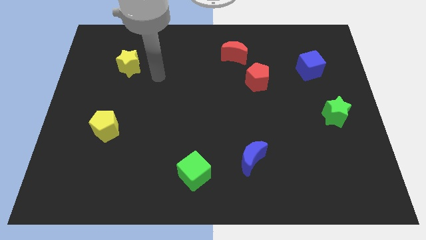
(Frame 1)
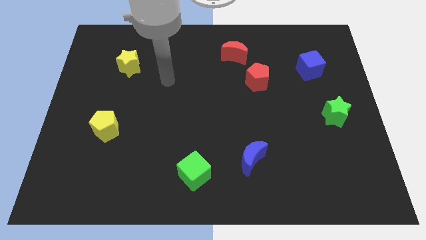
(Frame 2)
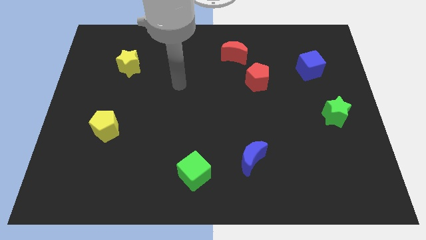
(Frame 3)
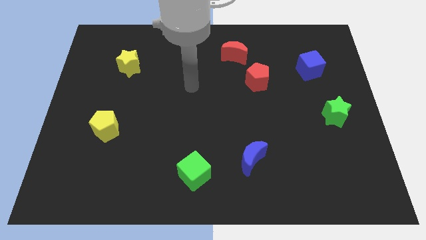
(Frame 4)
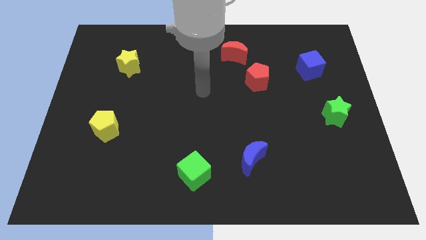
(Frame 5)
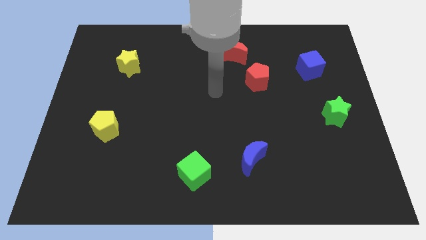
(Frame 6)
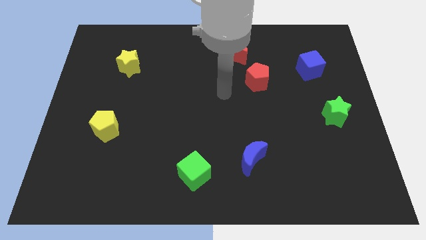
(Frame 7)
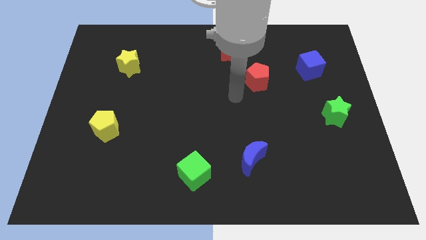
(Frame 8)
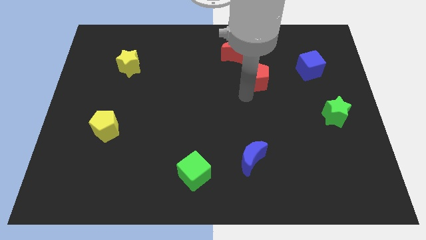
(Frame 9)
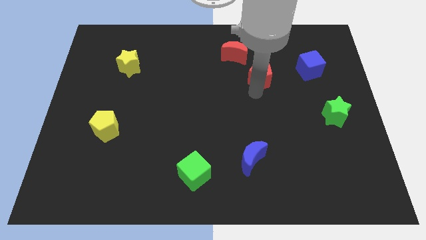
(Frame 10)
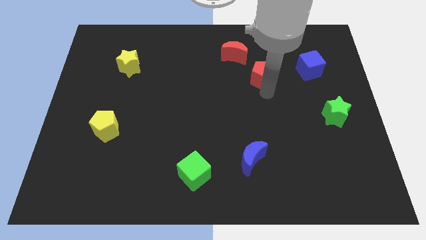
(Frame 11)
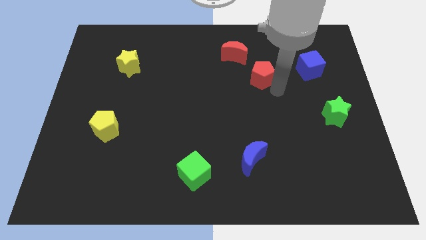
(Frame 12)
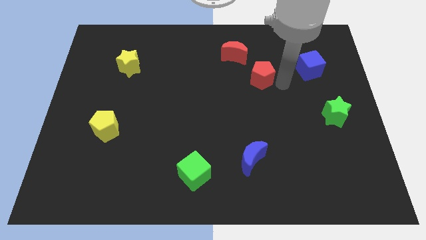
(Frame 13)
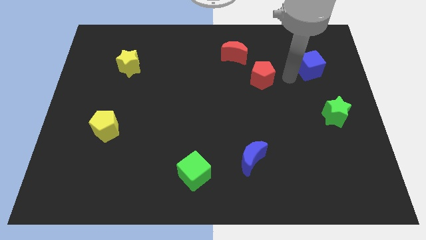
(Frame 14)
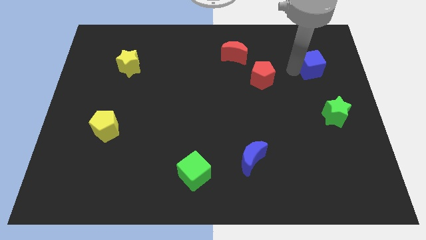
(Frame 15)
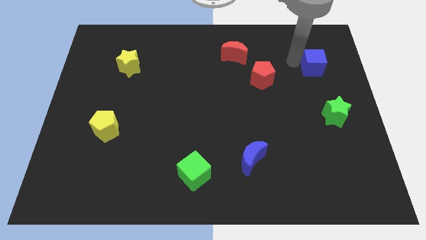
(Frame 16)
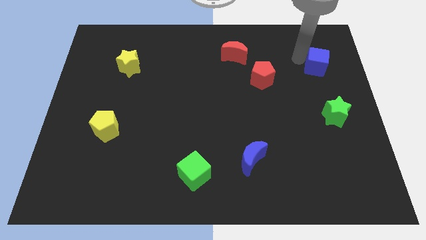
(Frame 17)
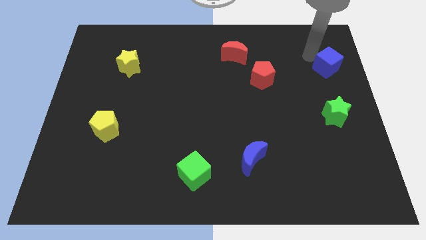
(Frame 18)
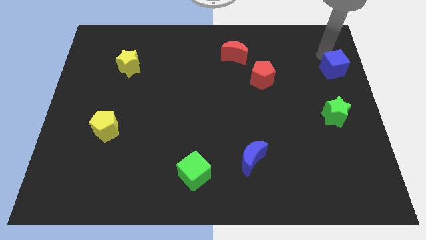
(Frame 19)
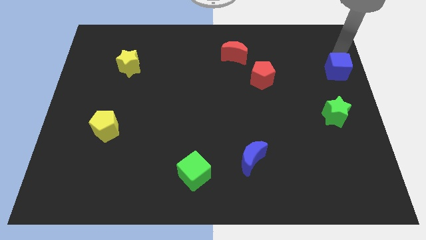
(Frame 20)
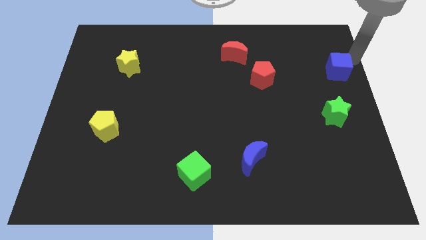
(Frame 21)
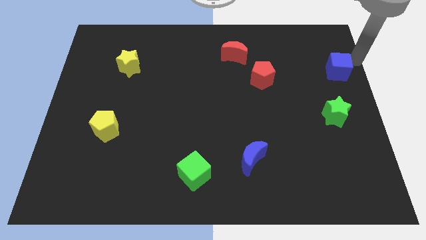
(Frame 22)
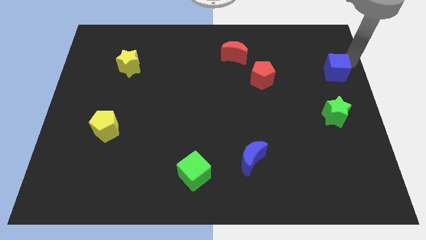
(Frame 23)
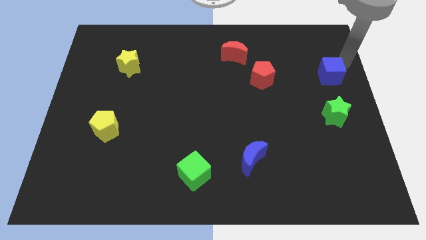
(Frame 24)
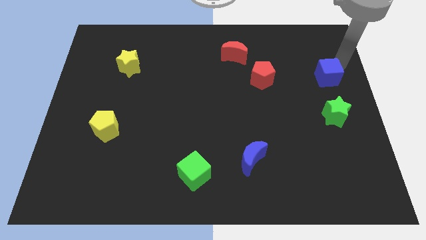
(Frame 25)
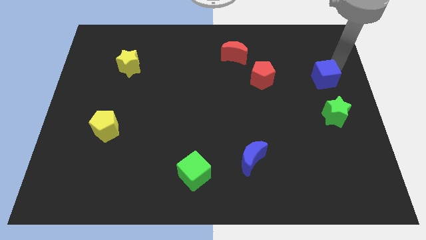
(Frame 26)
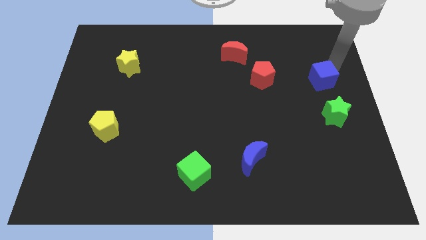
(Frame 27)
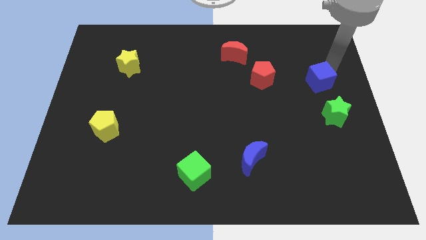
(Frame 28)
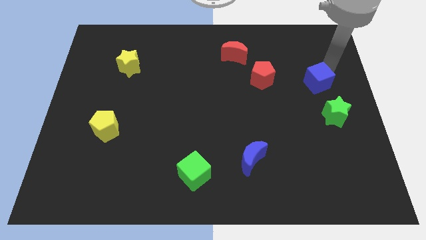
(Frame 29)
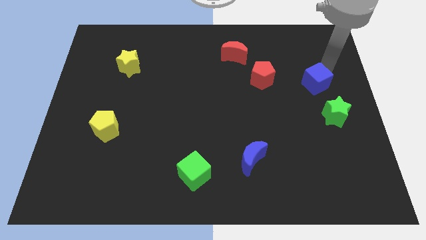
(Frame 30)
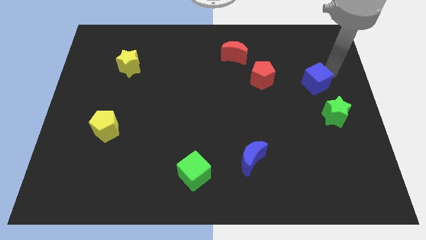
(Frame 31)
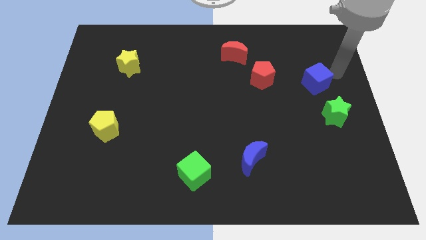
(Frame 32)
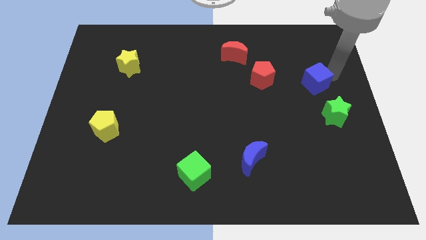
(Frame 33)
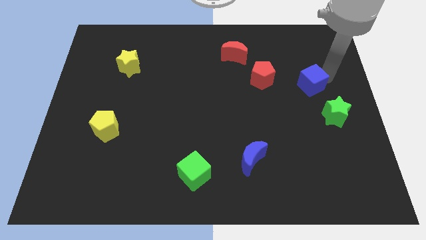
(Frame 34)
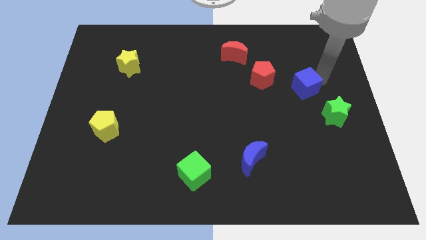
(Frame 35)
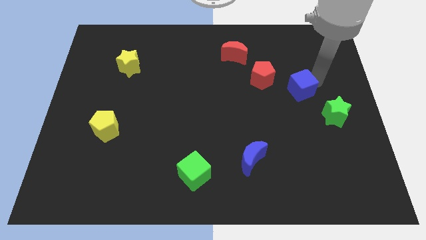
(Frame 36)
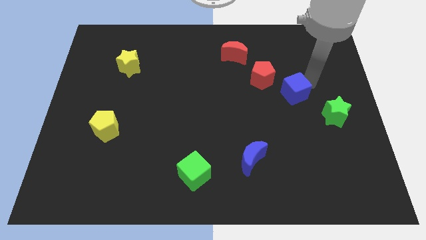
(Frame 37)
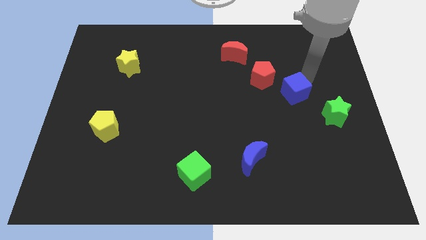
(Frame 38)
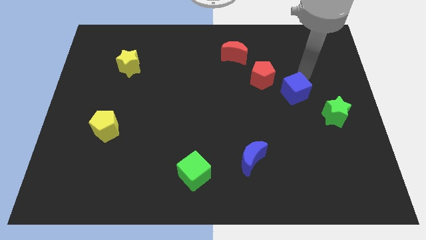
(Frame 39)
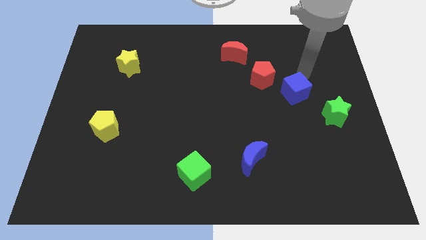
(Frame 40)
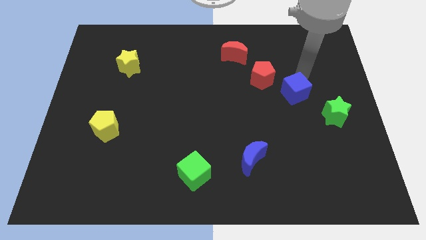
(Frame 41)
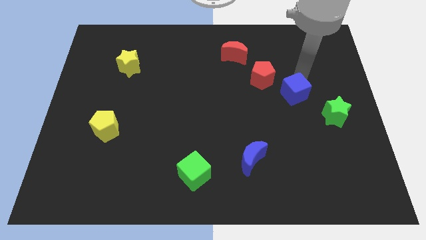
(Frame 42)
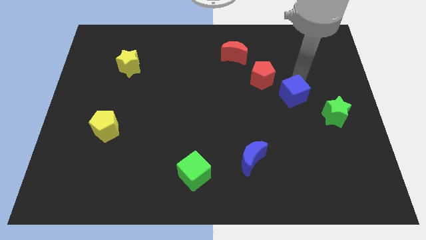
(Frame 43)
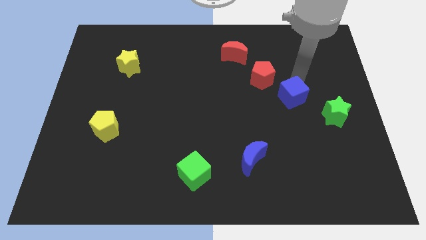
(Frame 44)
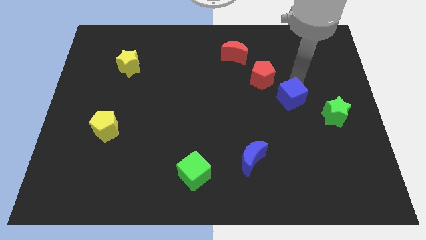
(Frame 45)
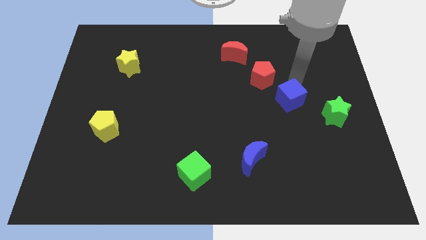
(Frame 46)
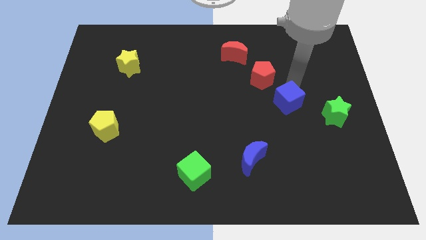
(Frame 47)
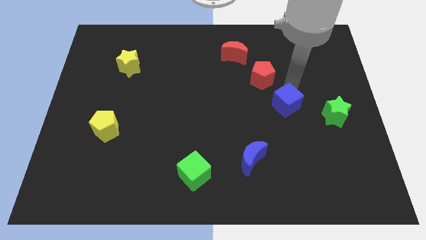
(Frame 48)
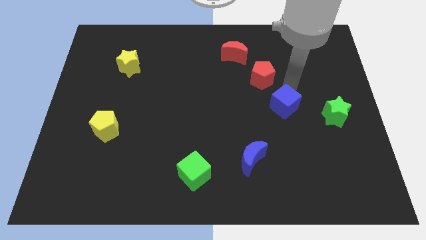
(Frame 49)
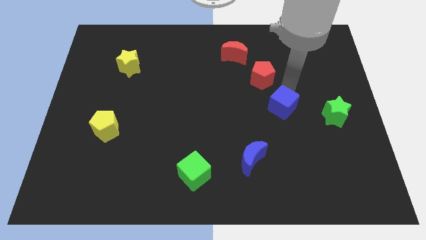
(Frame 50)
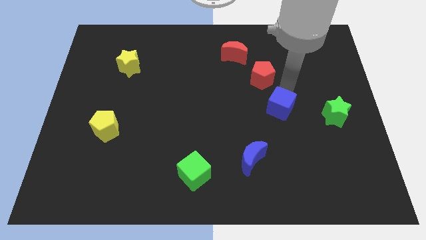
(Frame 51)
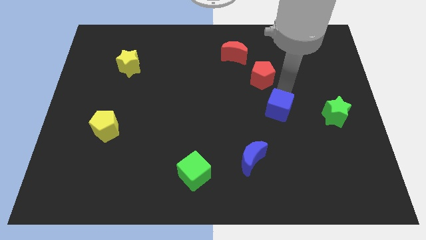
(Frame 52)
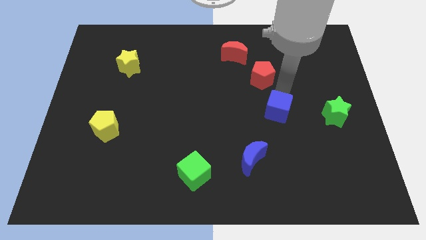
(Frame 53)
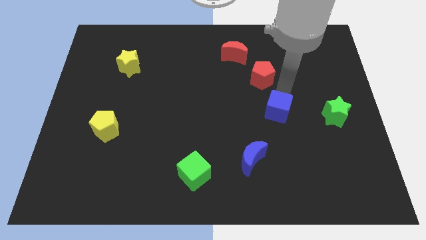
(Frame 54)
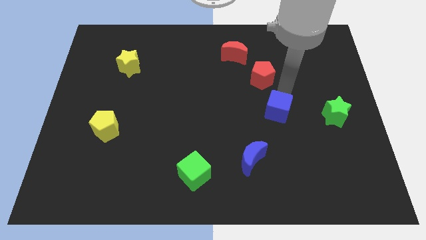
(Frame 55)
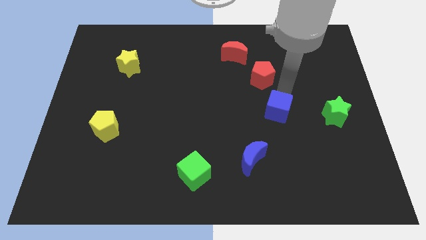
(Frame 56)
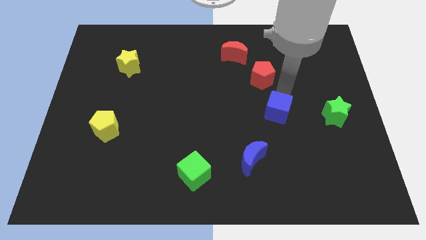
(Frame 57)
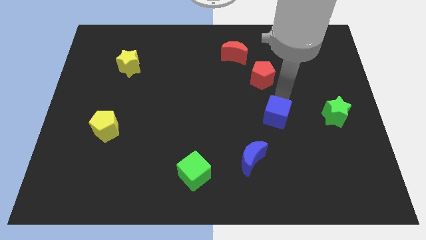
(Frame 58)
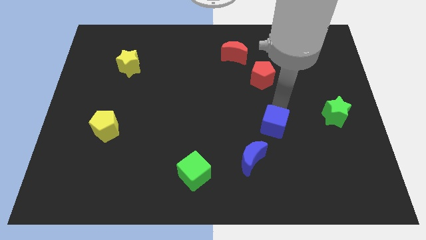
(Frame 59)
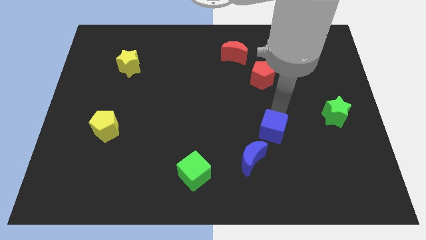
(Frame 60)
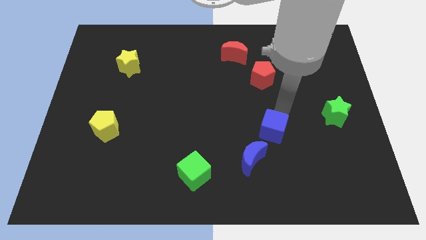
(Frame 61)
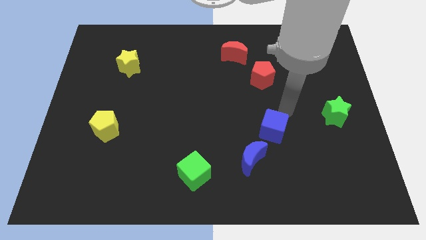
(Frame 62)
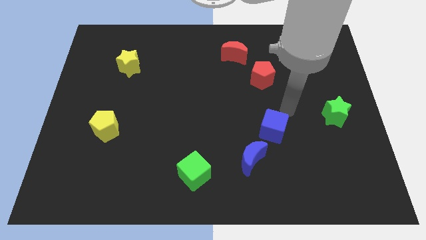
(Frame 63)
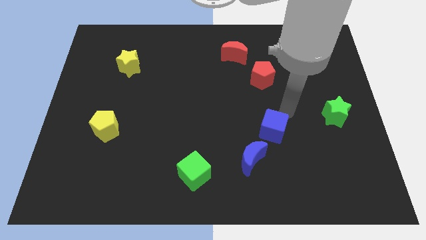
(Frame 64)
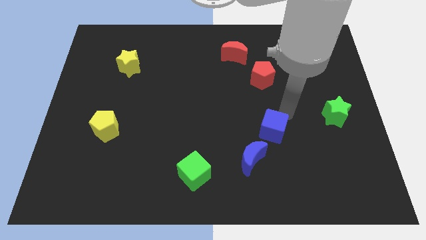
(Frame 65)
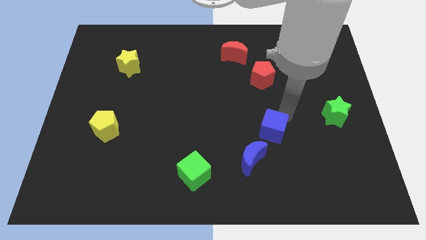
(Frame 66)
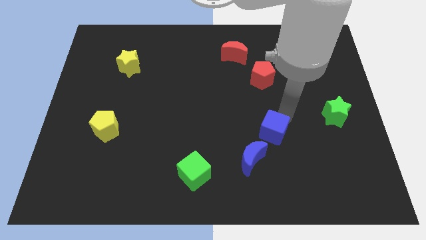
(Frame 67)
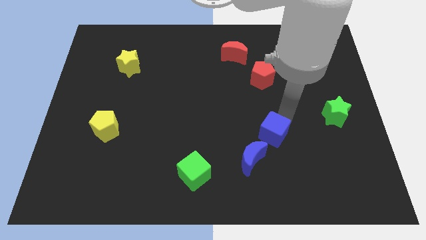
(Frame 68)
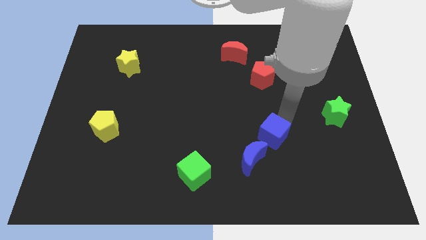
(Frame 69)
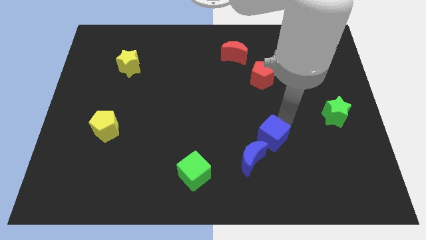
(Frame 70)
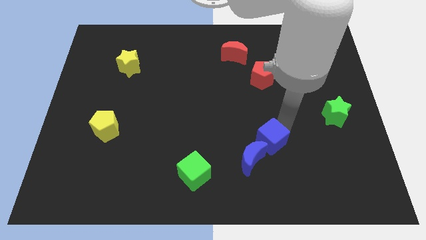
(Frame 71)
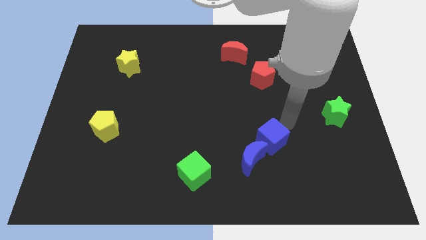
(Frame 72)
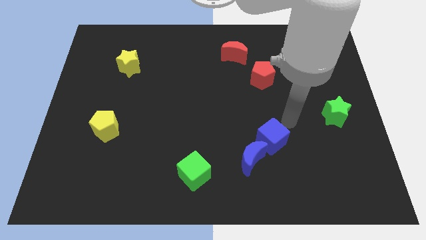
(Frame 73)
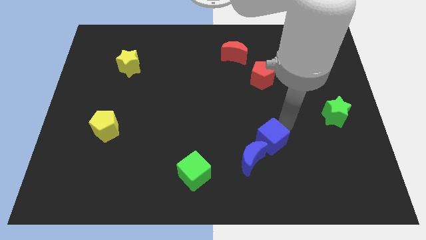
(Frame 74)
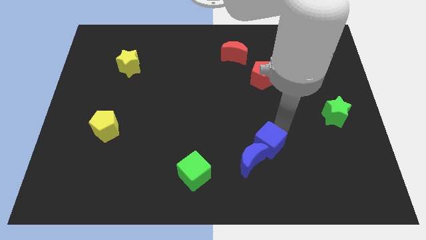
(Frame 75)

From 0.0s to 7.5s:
slide the blue cube close to the blue moon

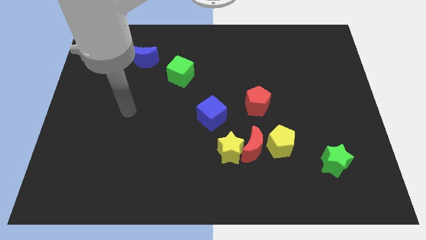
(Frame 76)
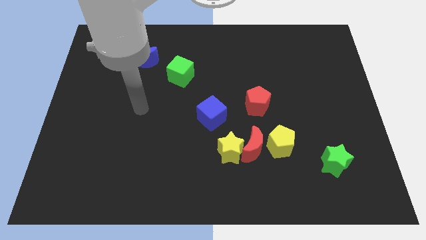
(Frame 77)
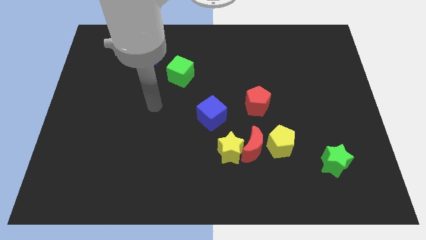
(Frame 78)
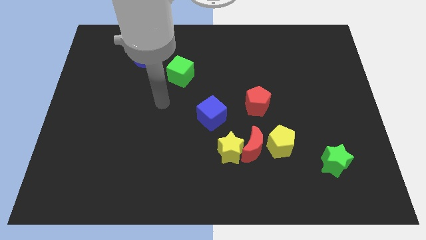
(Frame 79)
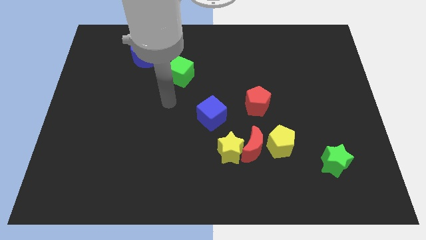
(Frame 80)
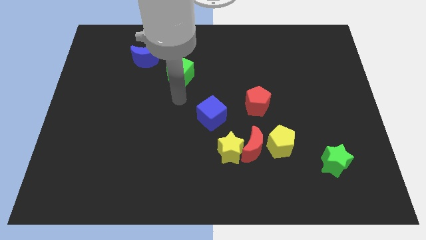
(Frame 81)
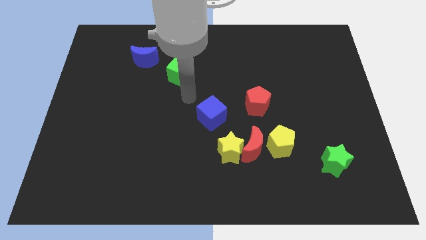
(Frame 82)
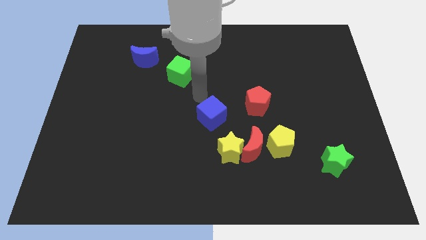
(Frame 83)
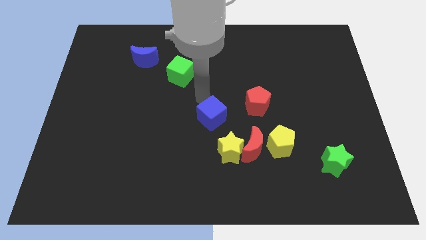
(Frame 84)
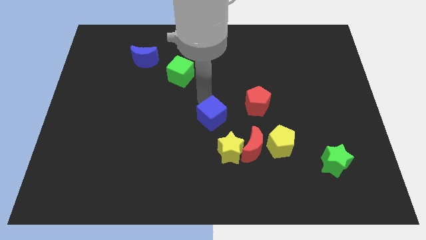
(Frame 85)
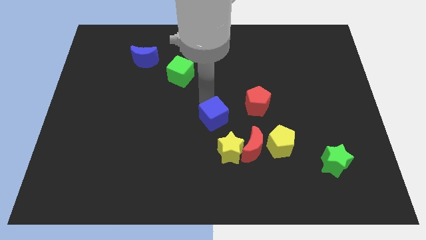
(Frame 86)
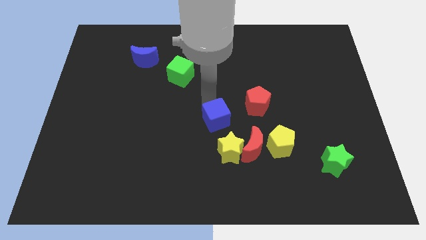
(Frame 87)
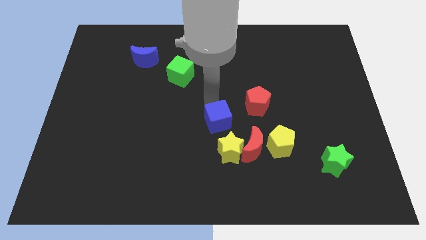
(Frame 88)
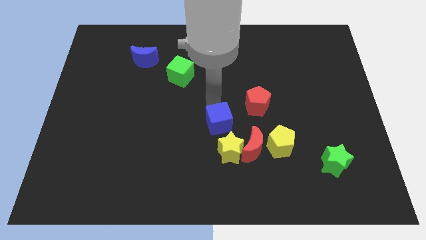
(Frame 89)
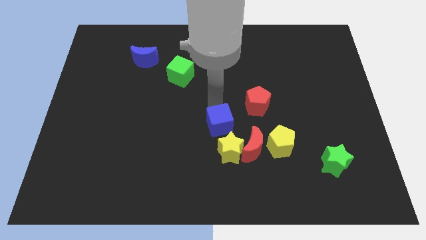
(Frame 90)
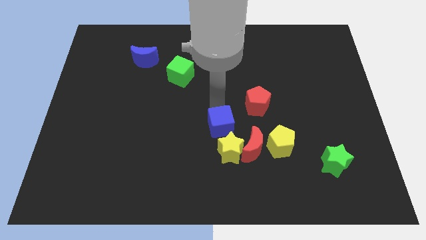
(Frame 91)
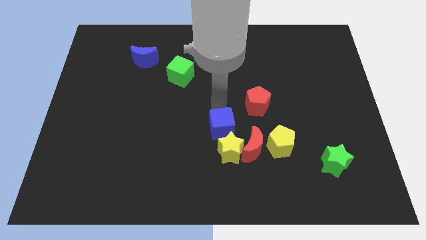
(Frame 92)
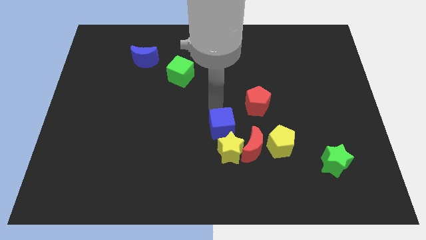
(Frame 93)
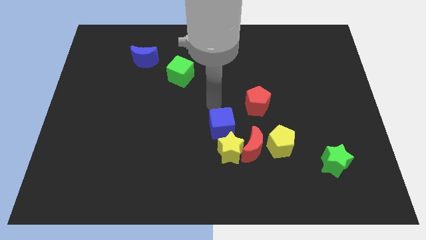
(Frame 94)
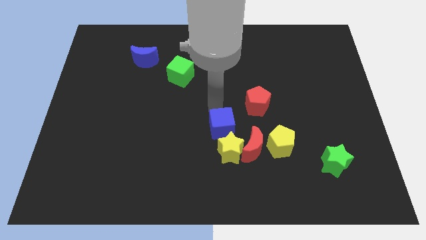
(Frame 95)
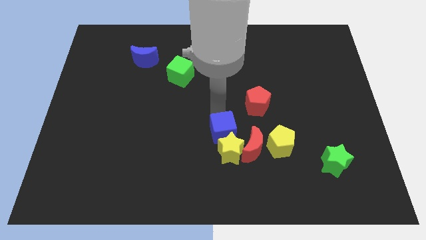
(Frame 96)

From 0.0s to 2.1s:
slide the blue cube towards the yellow star
